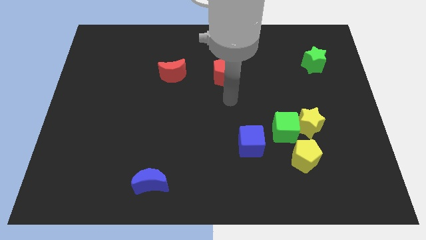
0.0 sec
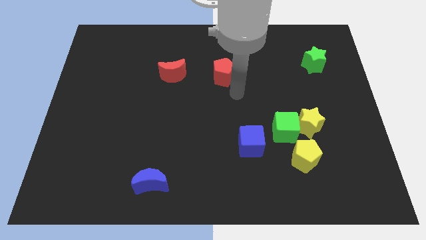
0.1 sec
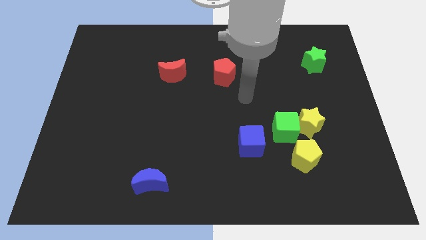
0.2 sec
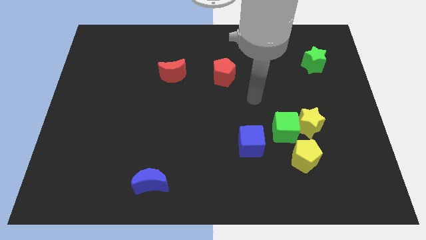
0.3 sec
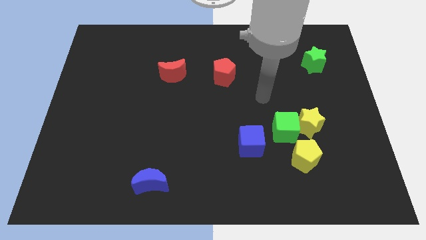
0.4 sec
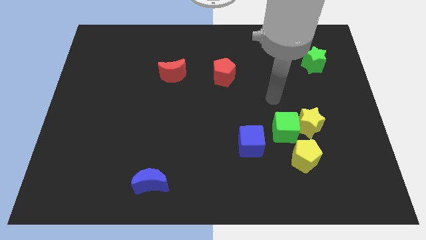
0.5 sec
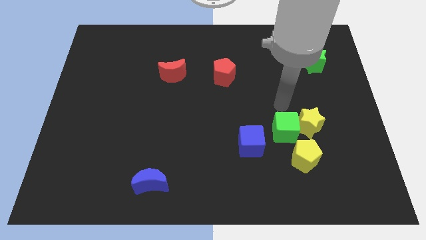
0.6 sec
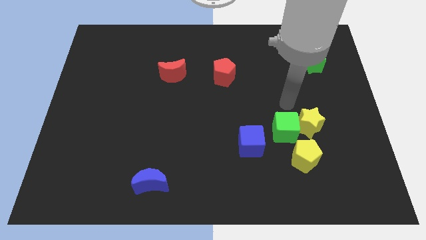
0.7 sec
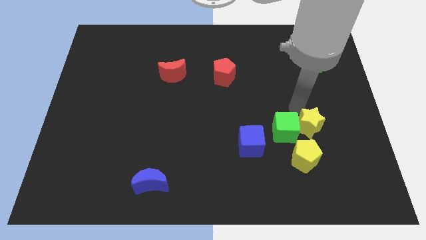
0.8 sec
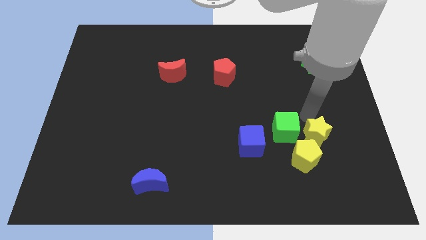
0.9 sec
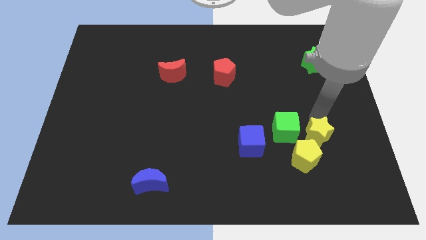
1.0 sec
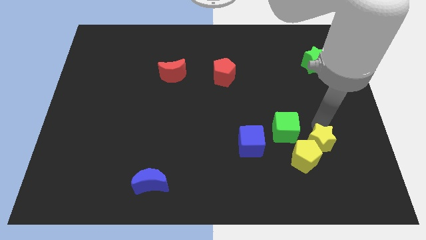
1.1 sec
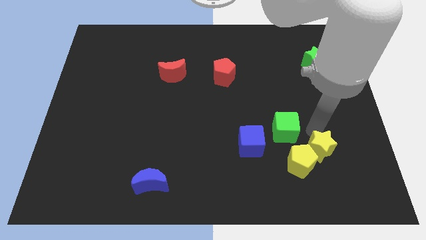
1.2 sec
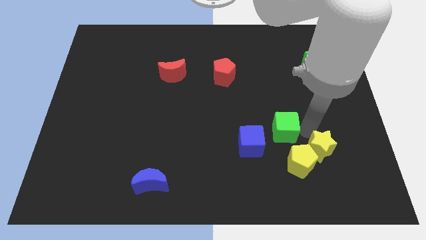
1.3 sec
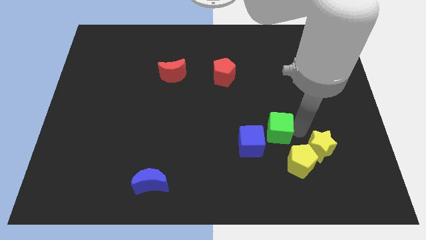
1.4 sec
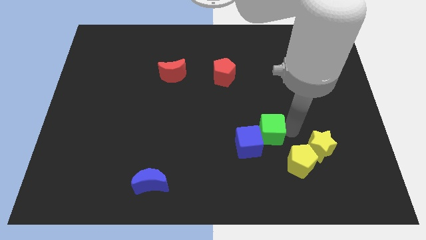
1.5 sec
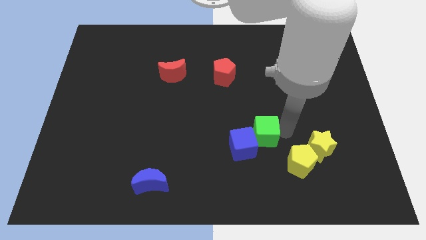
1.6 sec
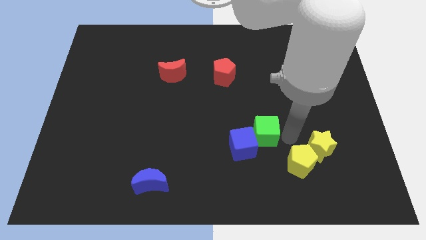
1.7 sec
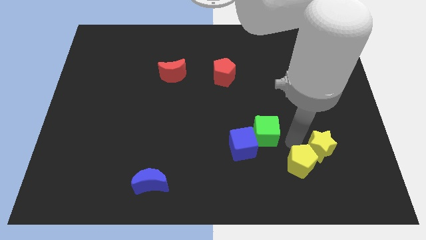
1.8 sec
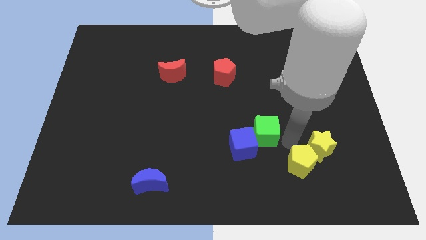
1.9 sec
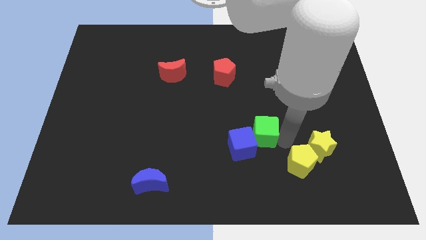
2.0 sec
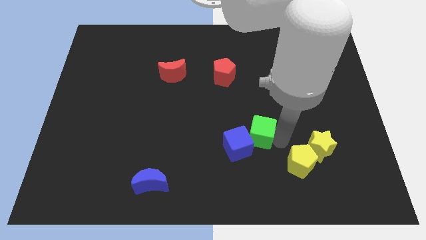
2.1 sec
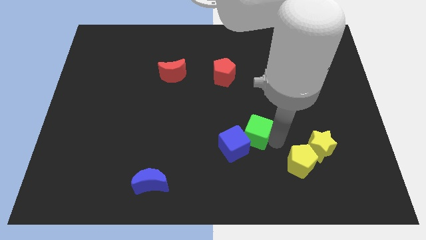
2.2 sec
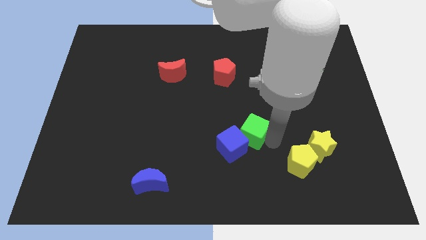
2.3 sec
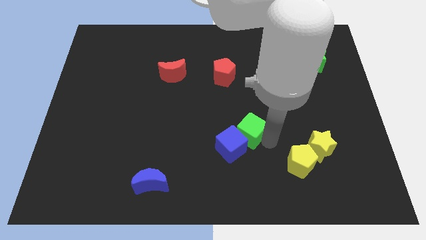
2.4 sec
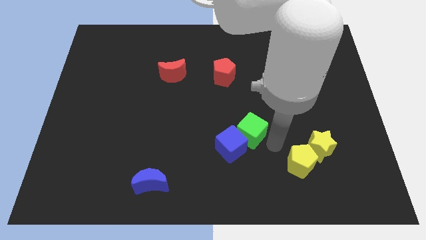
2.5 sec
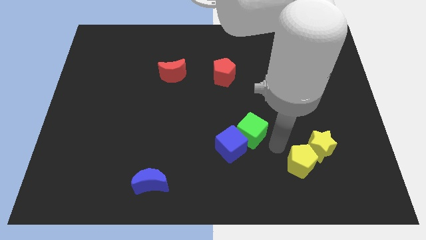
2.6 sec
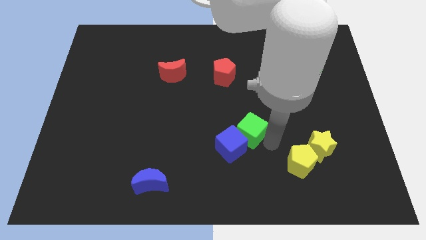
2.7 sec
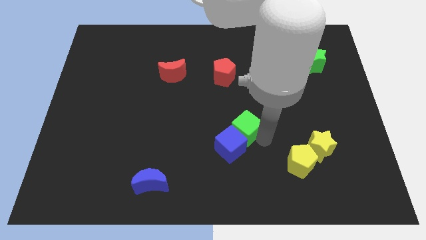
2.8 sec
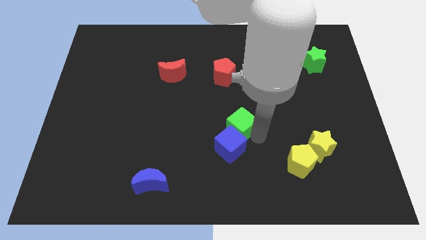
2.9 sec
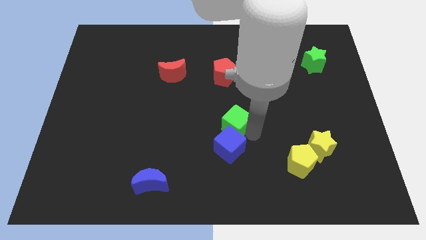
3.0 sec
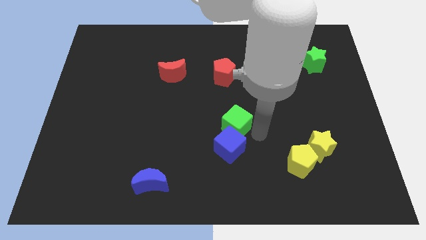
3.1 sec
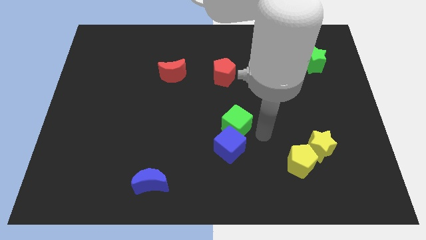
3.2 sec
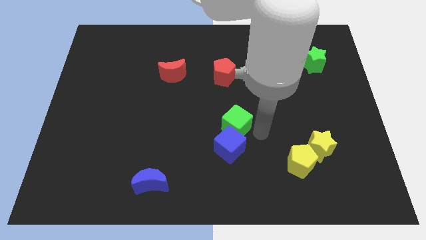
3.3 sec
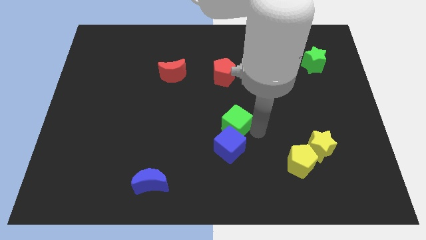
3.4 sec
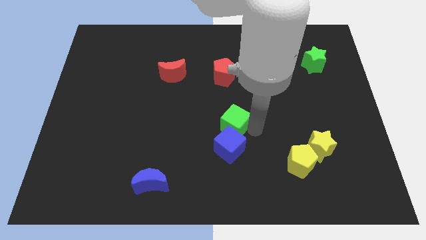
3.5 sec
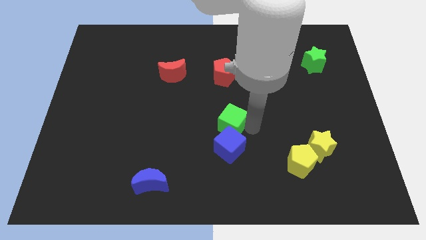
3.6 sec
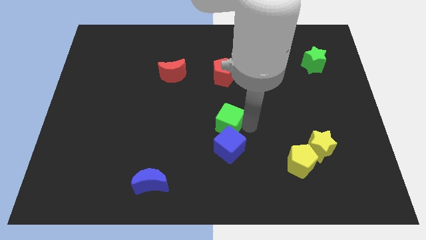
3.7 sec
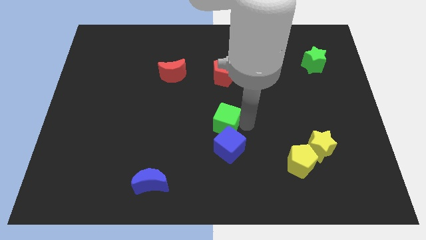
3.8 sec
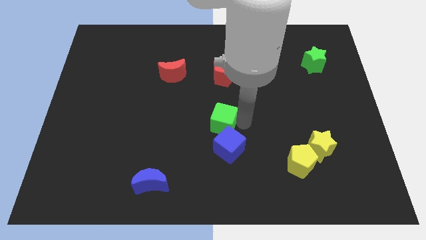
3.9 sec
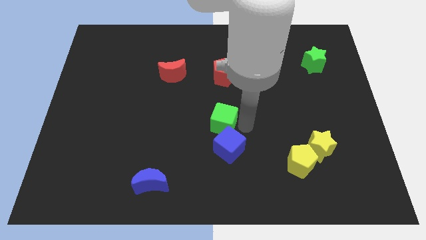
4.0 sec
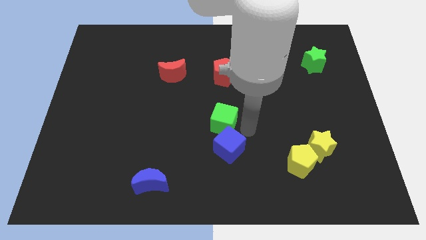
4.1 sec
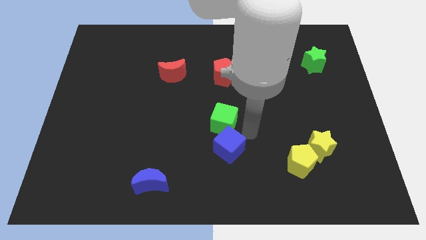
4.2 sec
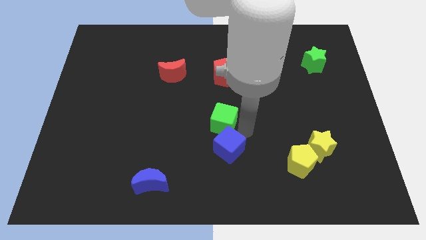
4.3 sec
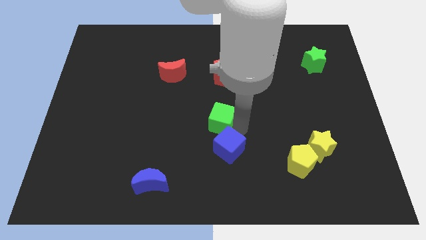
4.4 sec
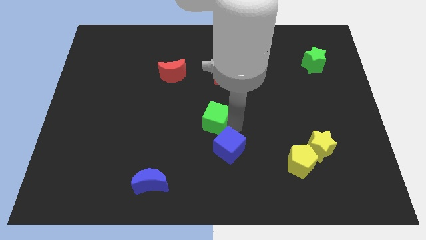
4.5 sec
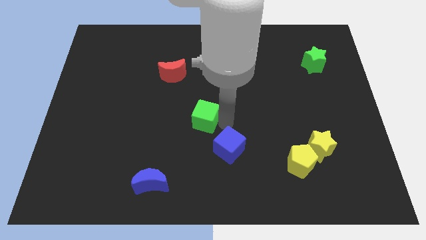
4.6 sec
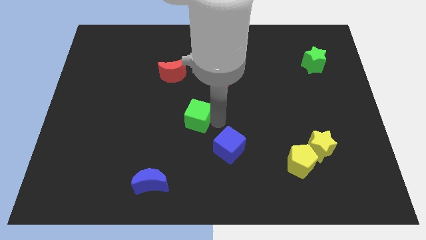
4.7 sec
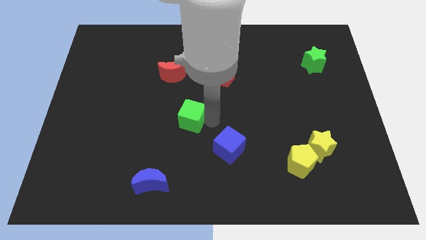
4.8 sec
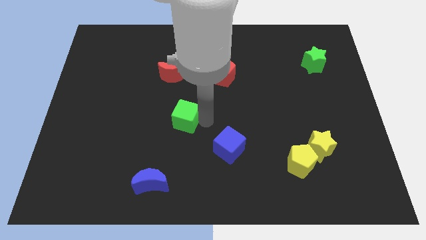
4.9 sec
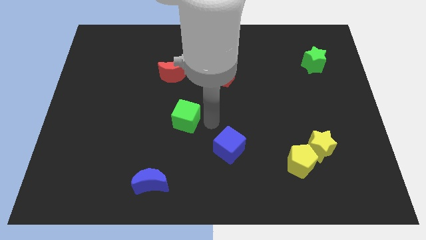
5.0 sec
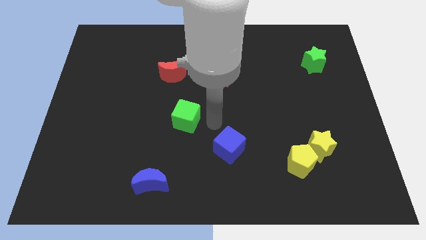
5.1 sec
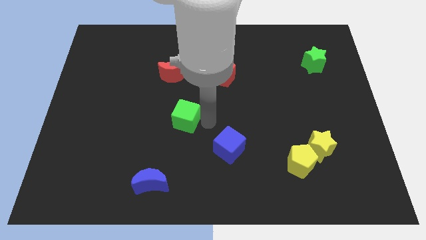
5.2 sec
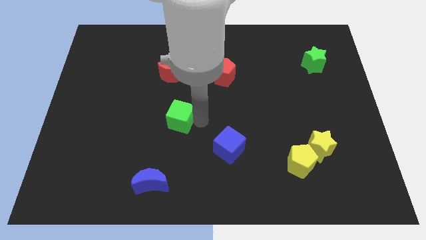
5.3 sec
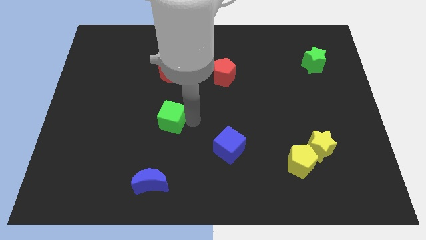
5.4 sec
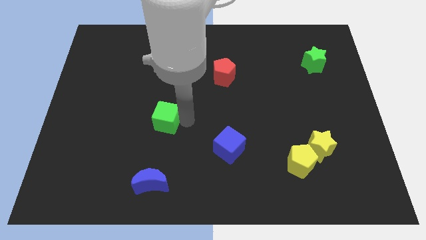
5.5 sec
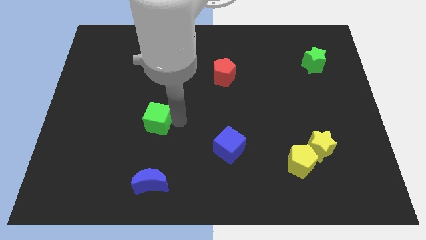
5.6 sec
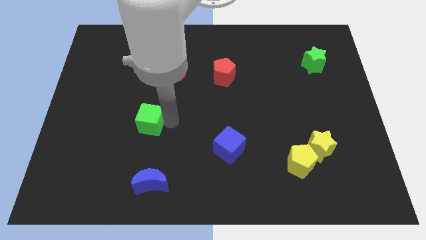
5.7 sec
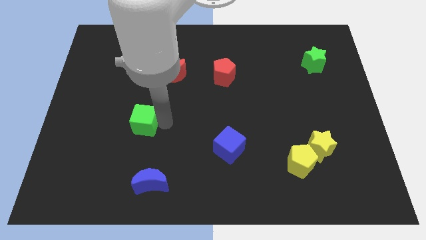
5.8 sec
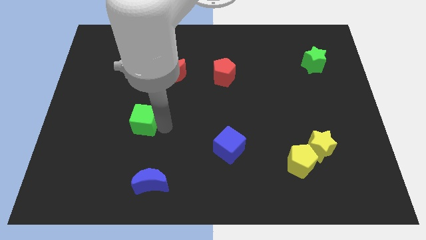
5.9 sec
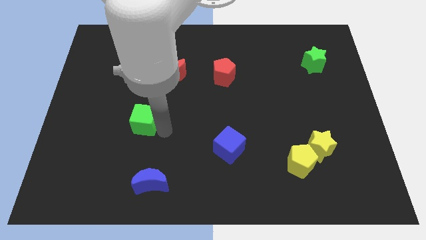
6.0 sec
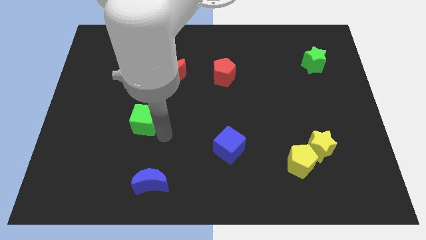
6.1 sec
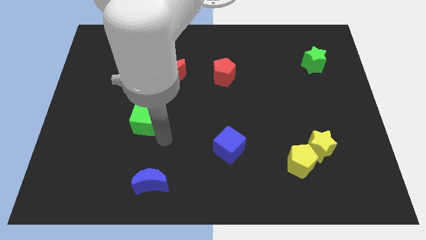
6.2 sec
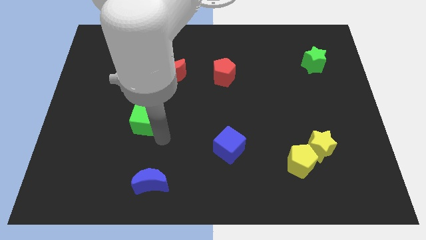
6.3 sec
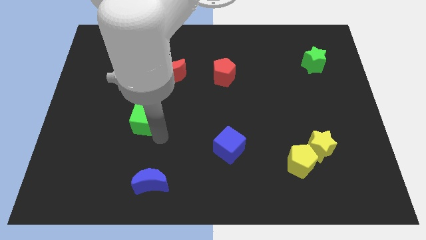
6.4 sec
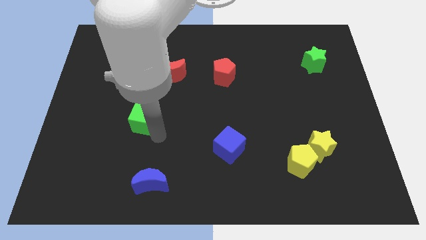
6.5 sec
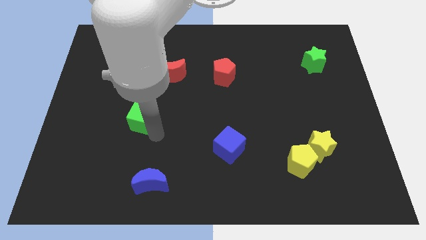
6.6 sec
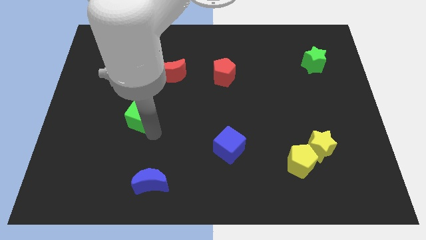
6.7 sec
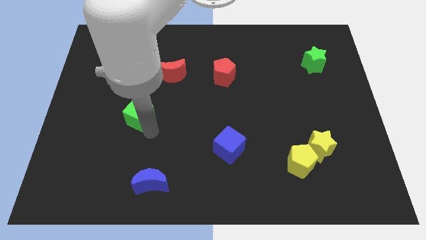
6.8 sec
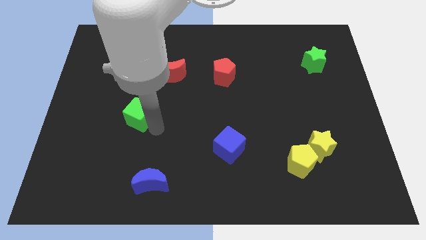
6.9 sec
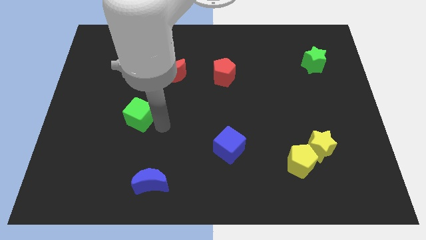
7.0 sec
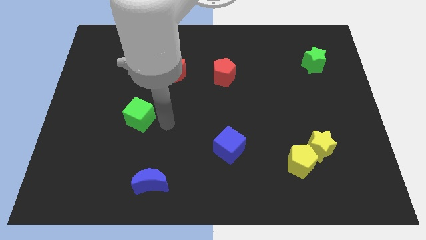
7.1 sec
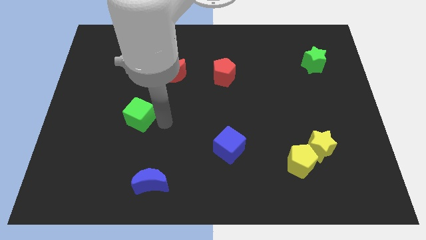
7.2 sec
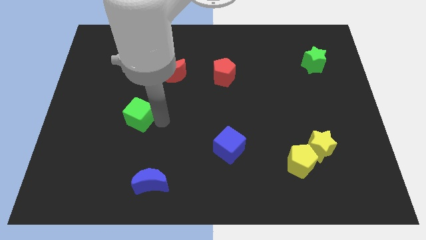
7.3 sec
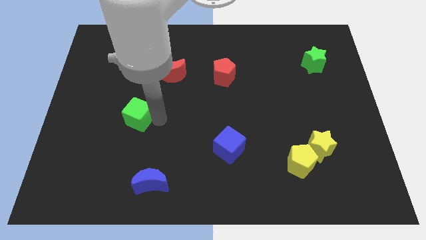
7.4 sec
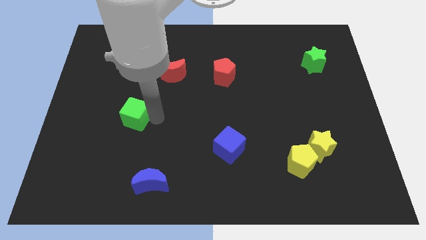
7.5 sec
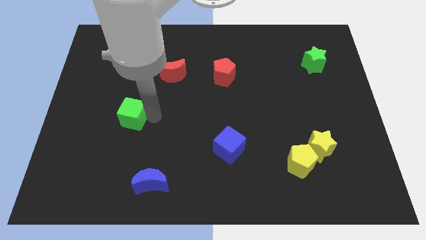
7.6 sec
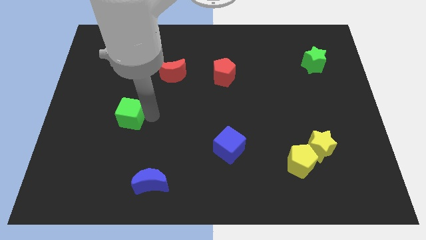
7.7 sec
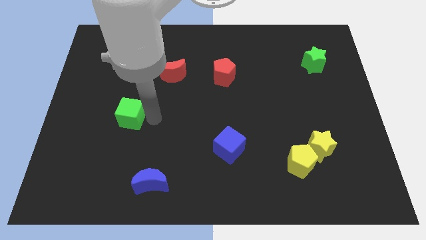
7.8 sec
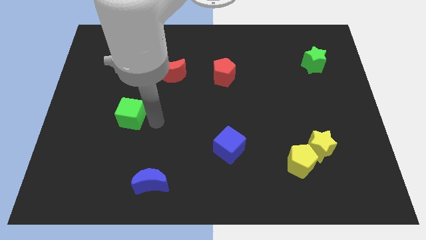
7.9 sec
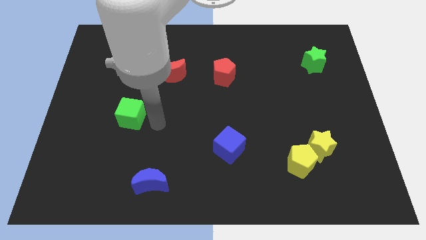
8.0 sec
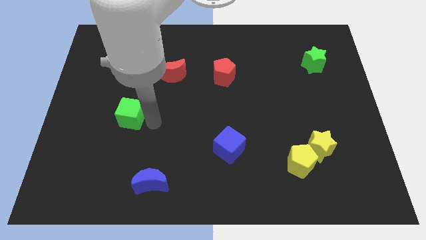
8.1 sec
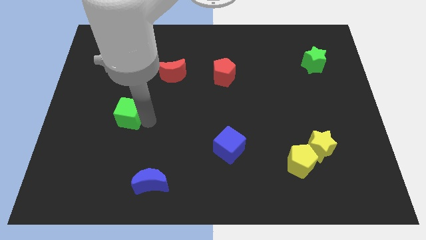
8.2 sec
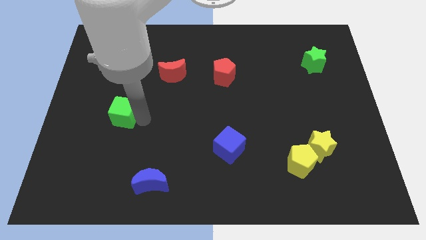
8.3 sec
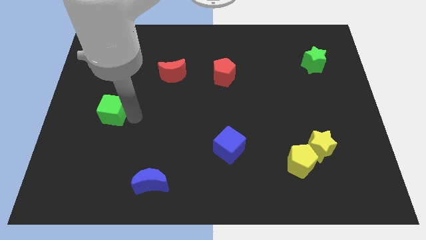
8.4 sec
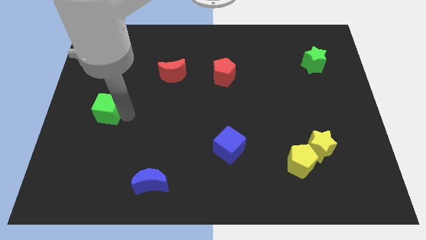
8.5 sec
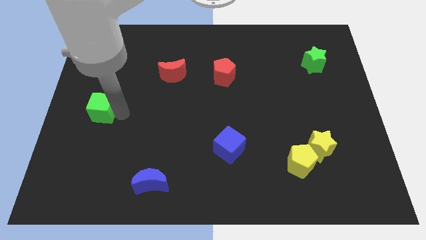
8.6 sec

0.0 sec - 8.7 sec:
push the green cube to the left side
